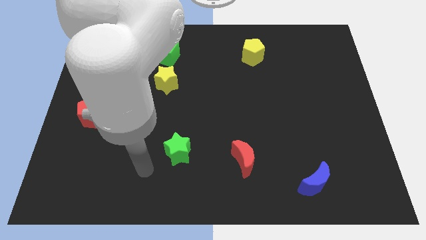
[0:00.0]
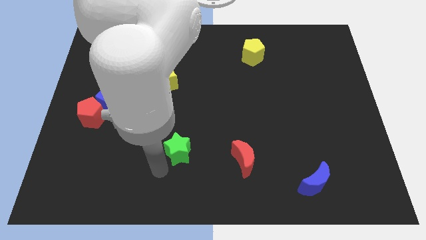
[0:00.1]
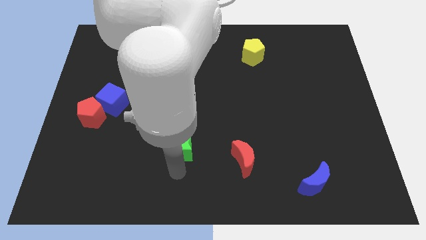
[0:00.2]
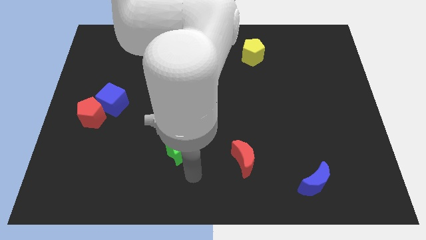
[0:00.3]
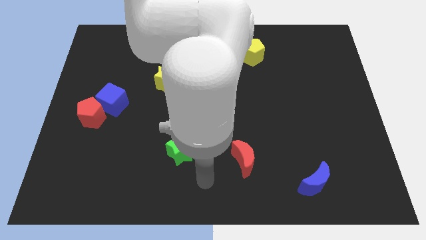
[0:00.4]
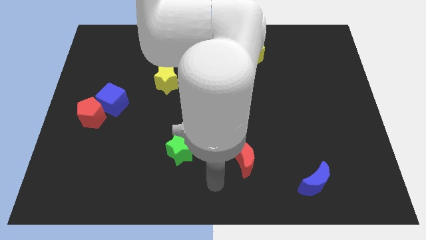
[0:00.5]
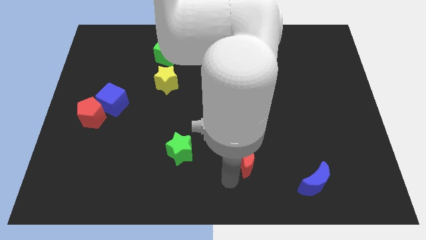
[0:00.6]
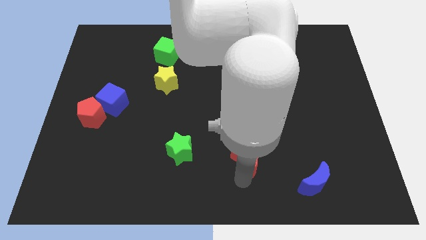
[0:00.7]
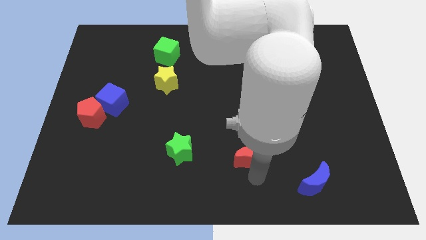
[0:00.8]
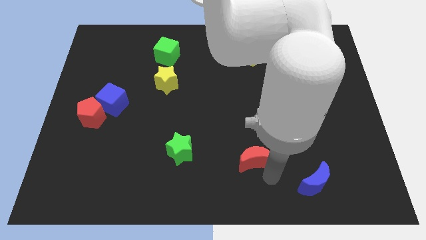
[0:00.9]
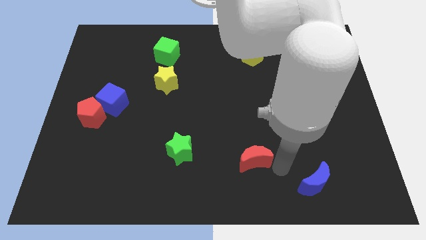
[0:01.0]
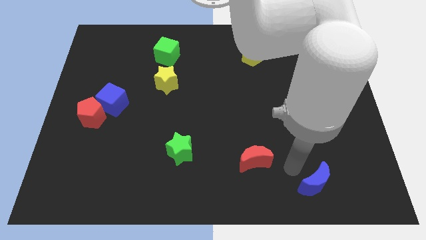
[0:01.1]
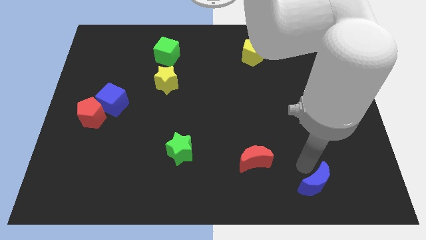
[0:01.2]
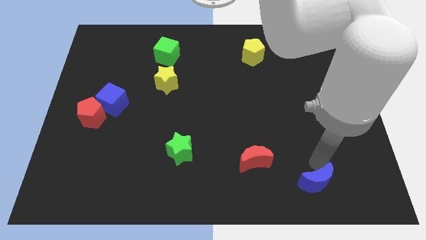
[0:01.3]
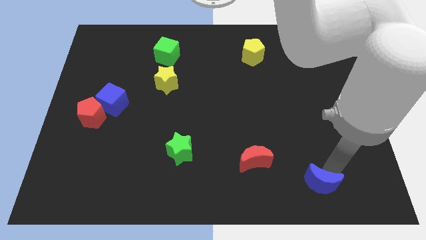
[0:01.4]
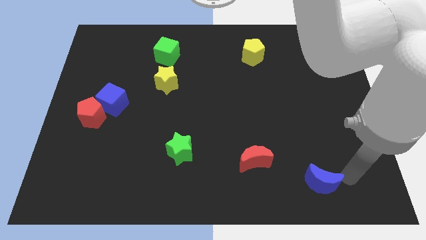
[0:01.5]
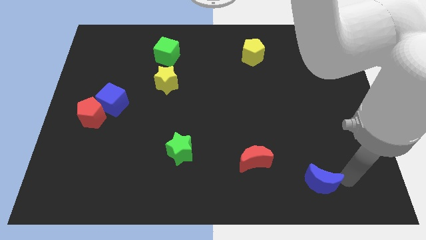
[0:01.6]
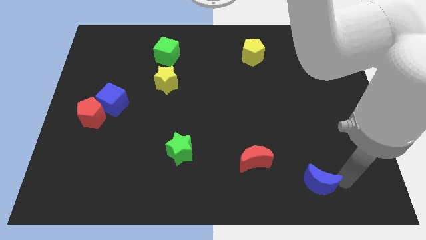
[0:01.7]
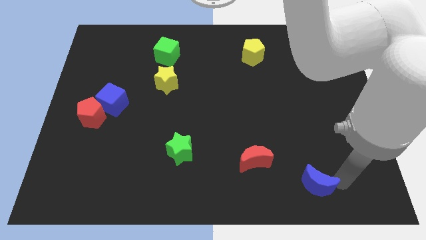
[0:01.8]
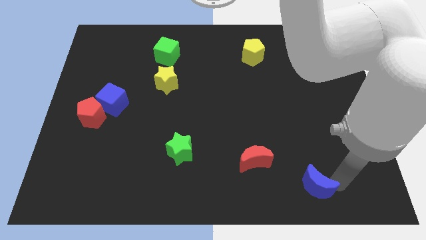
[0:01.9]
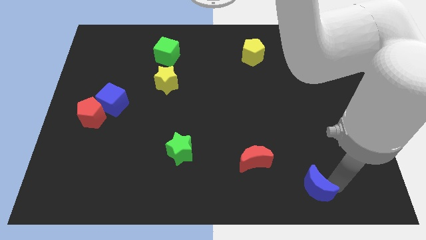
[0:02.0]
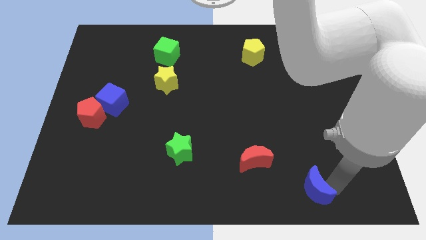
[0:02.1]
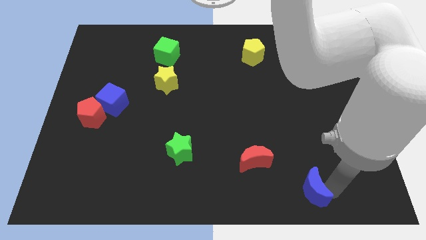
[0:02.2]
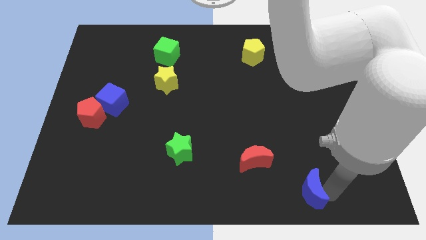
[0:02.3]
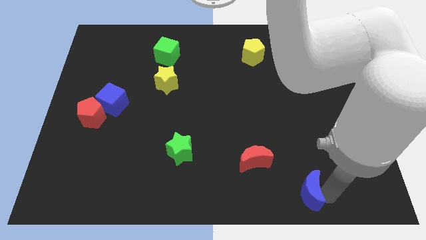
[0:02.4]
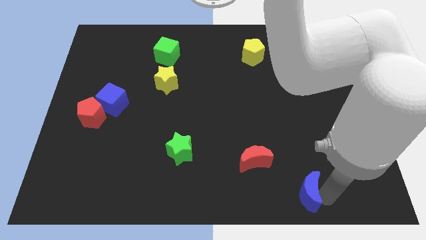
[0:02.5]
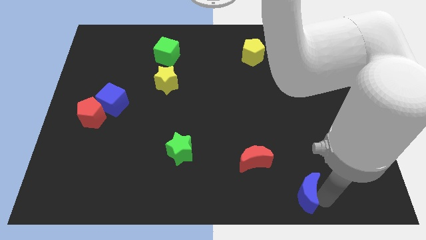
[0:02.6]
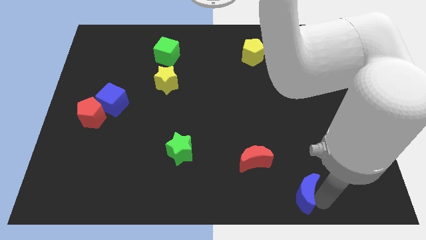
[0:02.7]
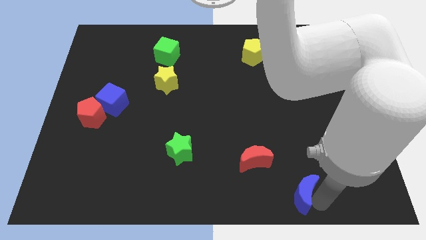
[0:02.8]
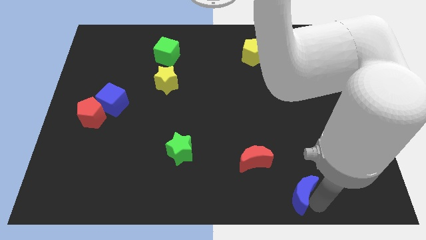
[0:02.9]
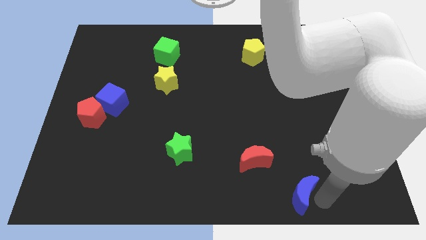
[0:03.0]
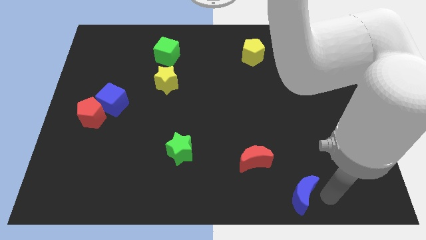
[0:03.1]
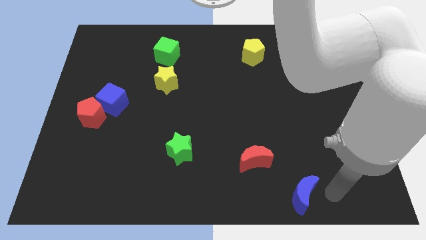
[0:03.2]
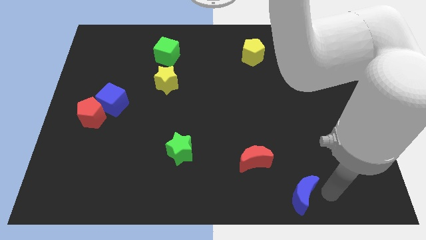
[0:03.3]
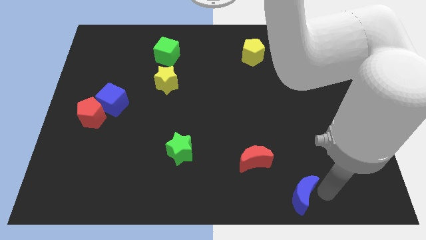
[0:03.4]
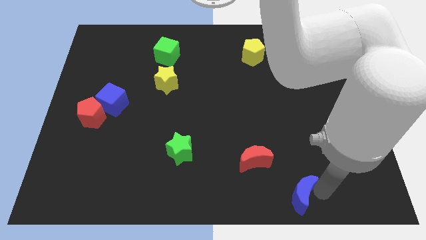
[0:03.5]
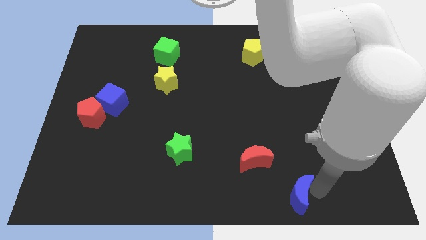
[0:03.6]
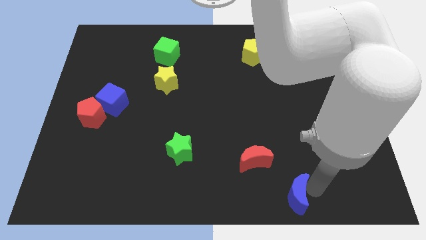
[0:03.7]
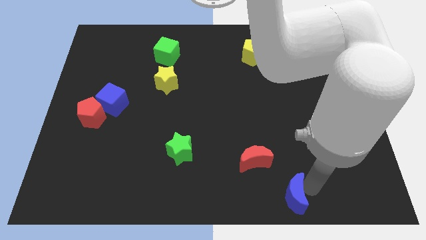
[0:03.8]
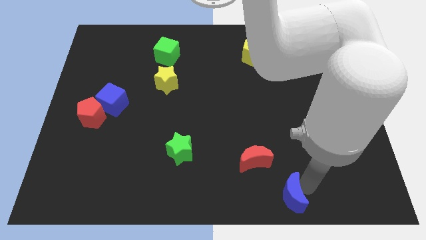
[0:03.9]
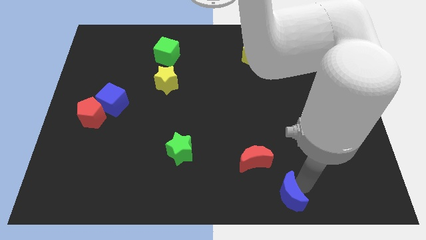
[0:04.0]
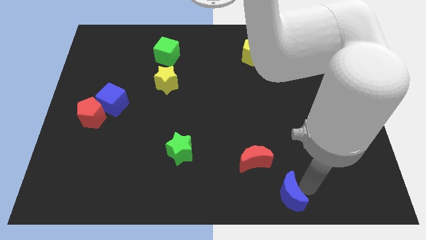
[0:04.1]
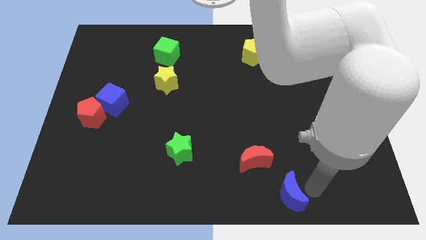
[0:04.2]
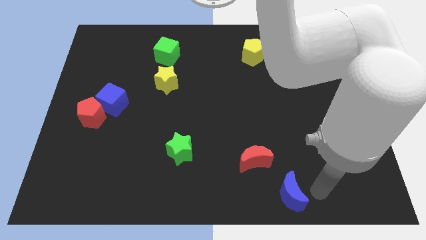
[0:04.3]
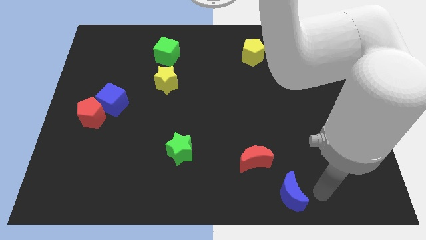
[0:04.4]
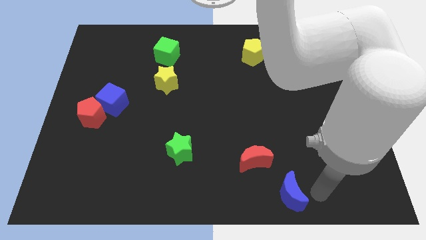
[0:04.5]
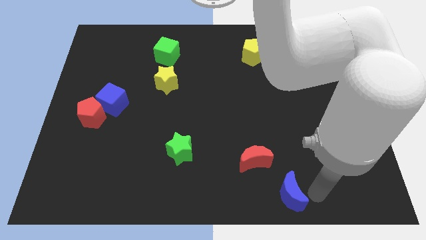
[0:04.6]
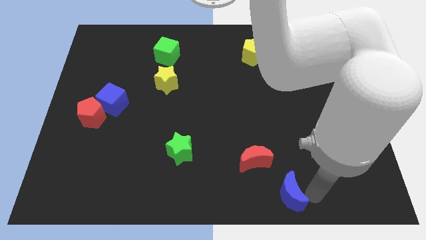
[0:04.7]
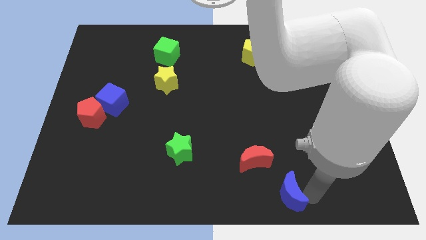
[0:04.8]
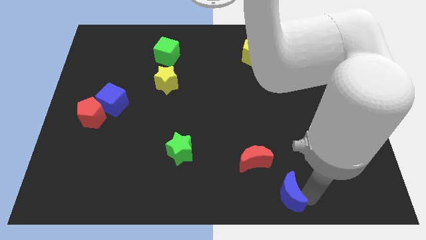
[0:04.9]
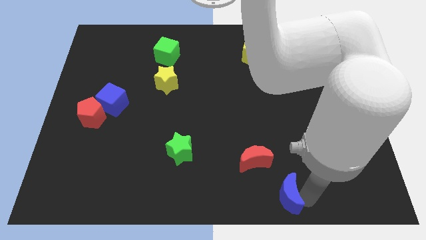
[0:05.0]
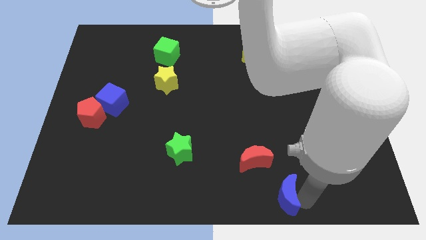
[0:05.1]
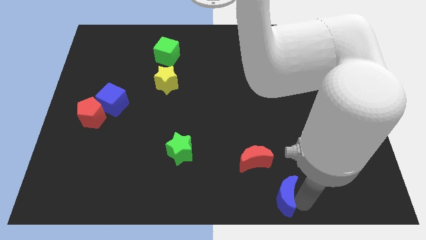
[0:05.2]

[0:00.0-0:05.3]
push the blue moon to the bottom

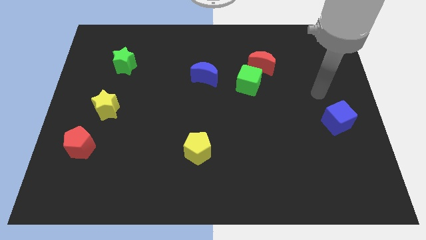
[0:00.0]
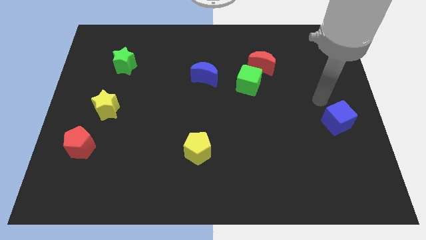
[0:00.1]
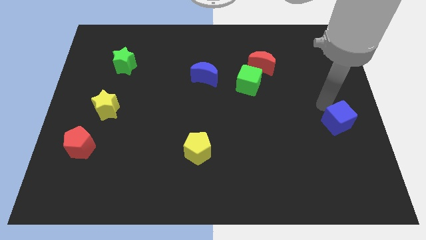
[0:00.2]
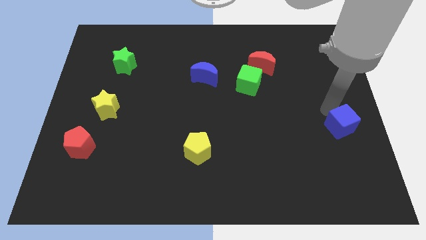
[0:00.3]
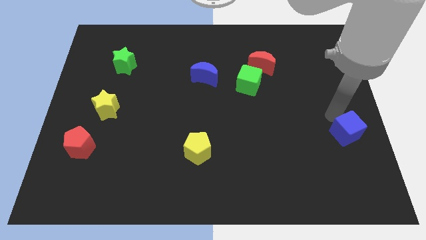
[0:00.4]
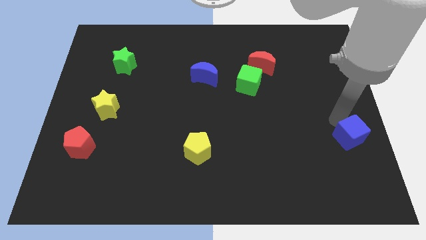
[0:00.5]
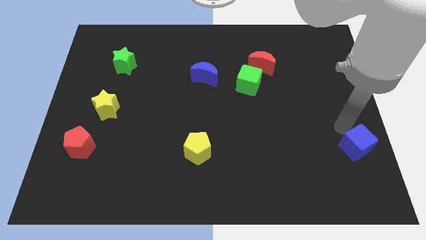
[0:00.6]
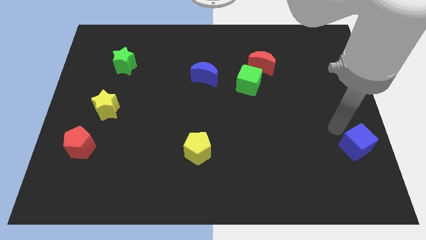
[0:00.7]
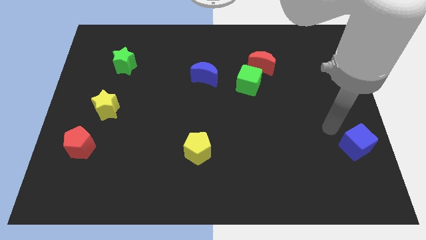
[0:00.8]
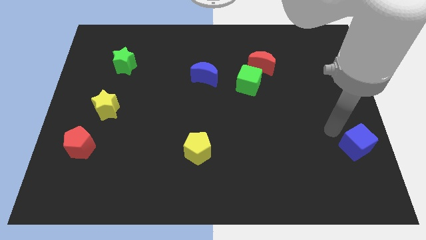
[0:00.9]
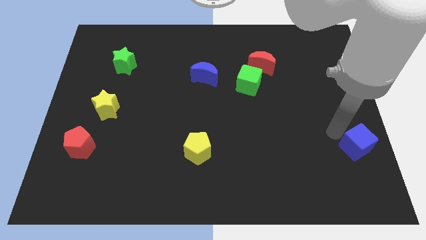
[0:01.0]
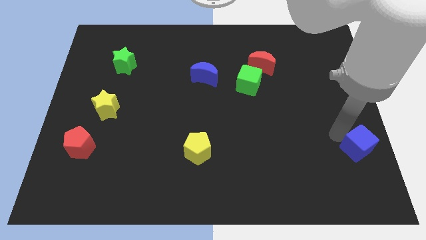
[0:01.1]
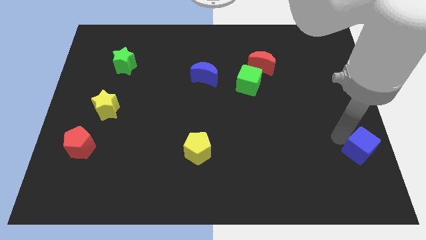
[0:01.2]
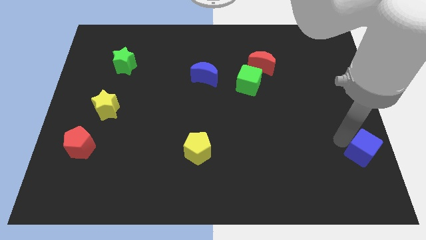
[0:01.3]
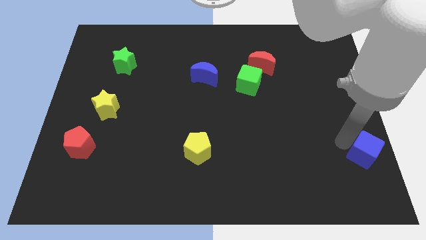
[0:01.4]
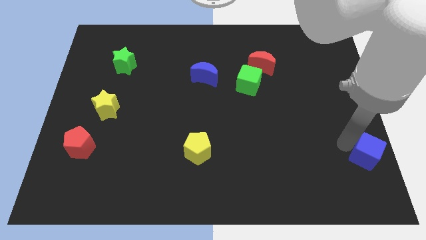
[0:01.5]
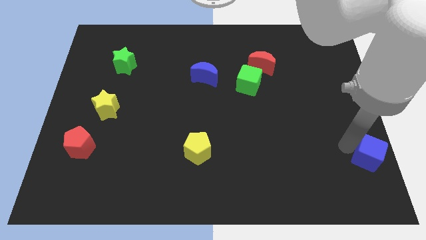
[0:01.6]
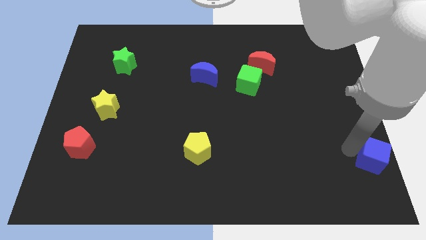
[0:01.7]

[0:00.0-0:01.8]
push the blue cube to the bottom right of the board

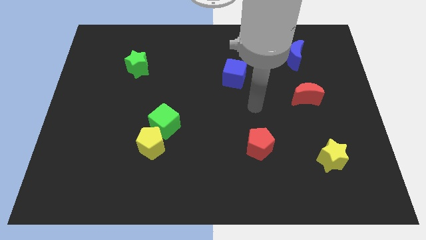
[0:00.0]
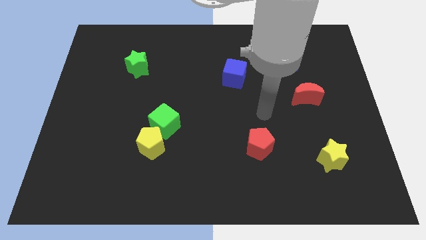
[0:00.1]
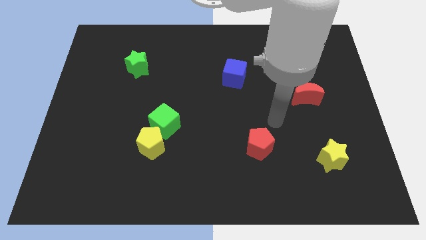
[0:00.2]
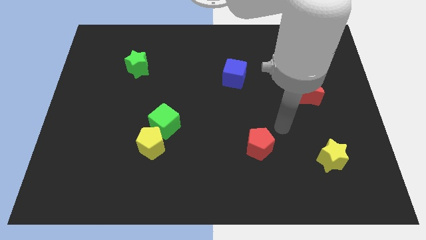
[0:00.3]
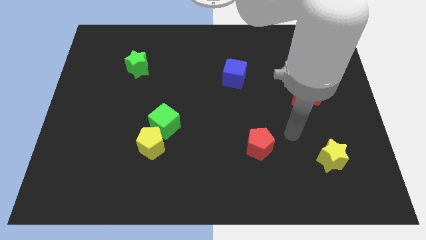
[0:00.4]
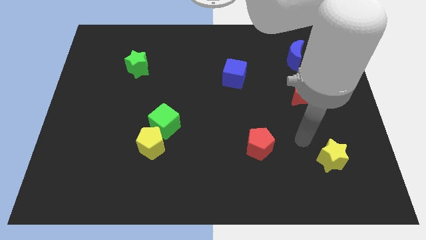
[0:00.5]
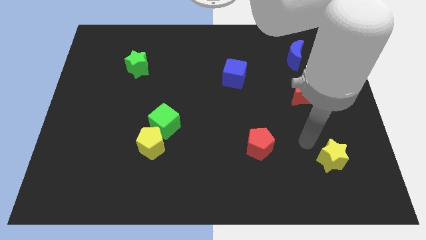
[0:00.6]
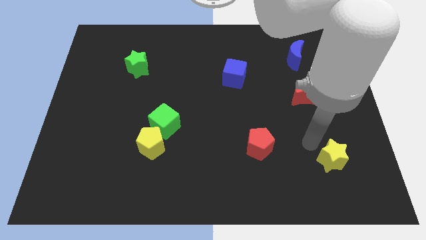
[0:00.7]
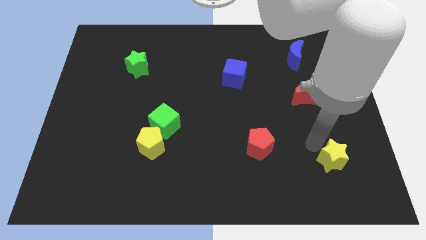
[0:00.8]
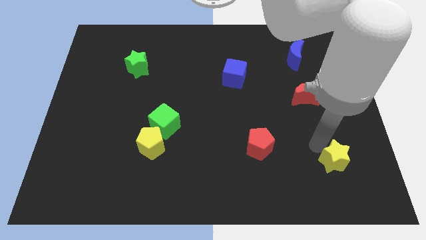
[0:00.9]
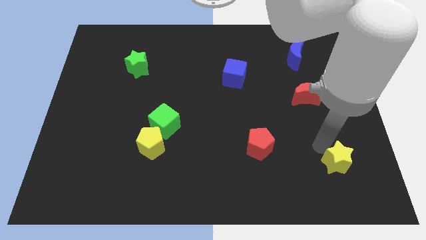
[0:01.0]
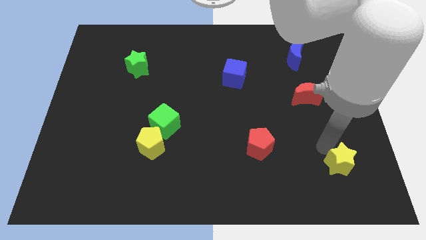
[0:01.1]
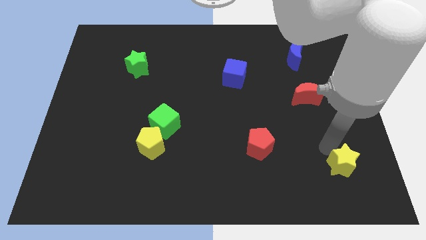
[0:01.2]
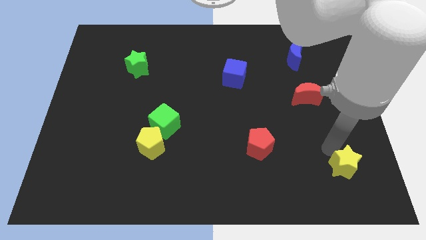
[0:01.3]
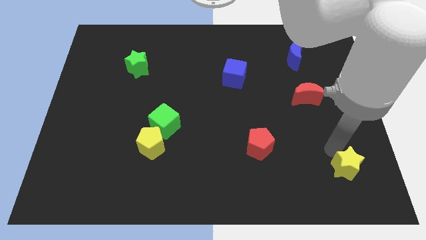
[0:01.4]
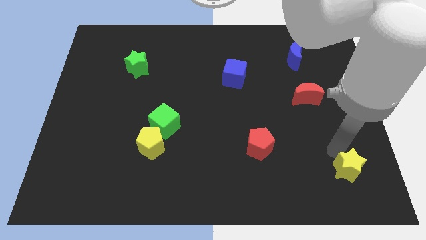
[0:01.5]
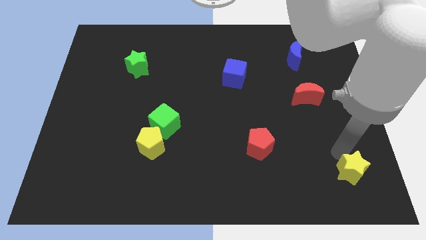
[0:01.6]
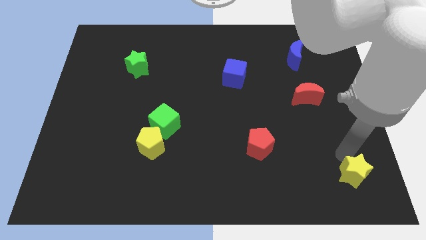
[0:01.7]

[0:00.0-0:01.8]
move the yellow star to the bottom right of the board
